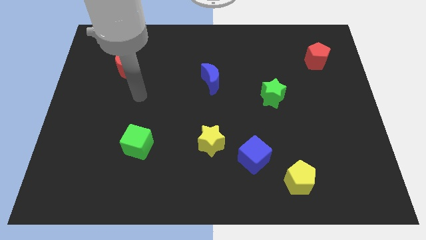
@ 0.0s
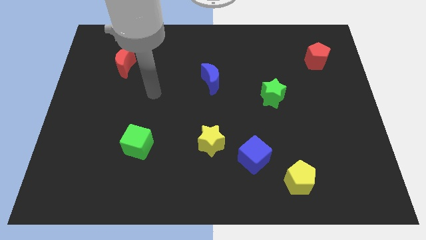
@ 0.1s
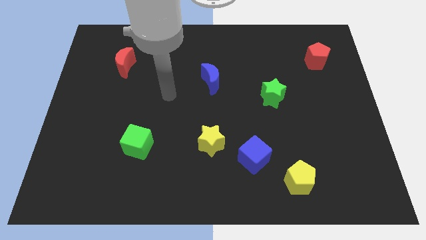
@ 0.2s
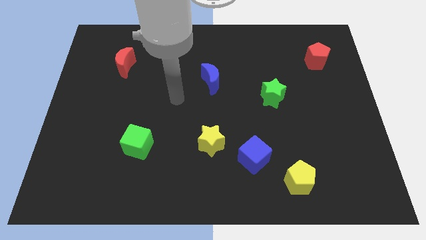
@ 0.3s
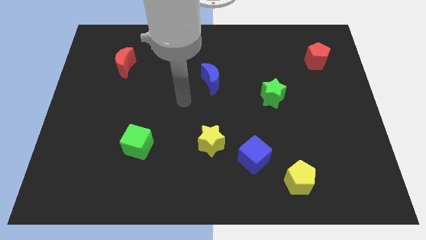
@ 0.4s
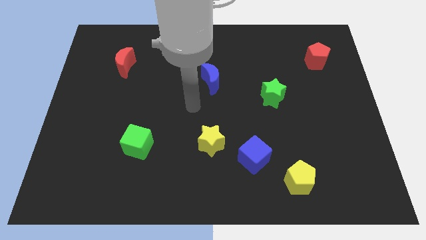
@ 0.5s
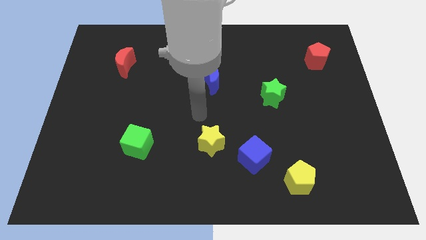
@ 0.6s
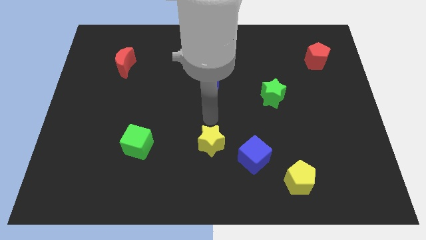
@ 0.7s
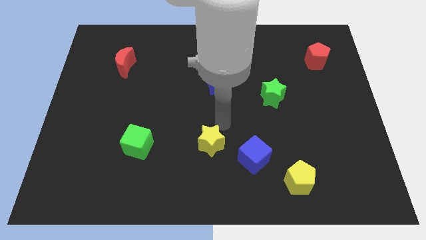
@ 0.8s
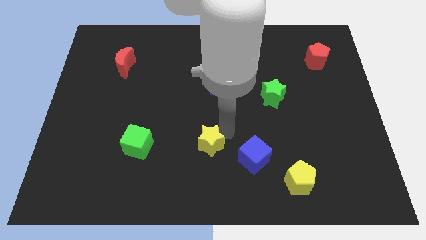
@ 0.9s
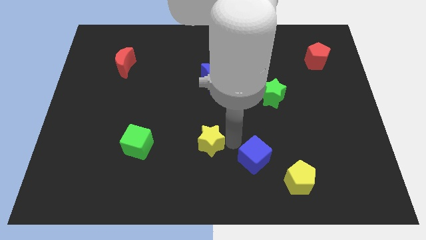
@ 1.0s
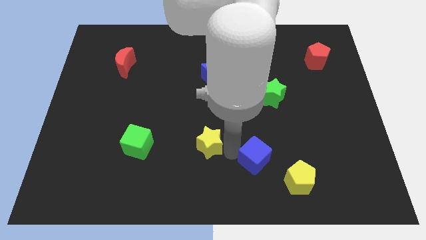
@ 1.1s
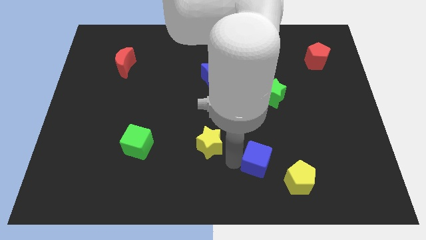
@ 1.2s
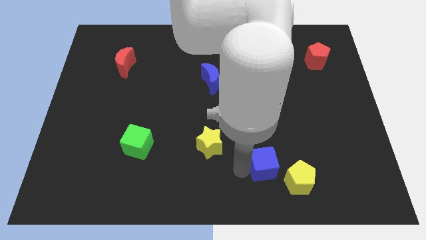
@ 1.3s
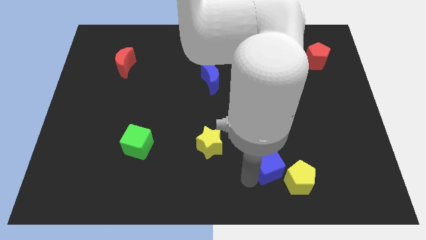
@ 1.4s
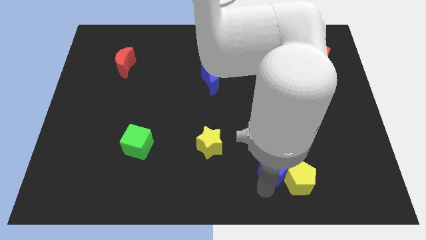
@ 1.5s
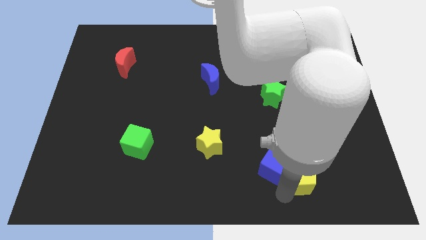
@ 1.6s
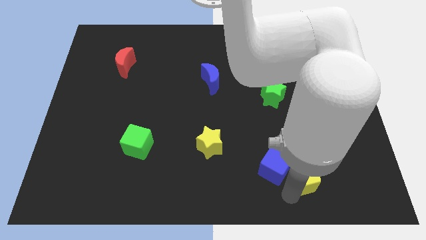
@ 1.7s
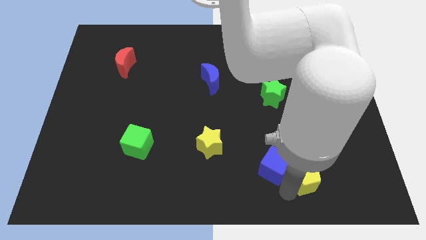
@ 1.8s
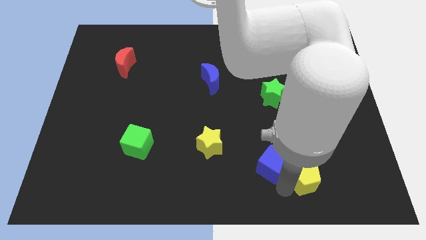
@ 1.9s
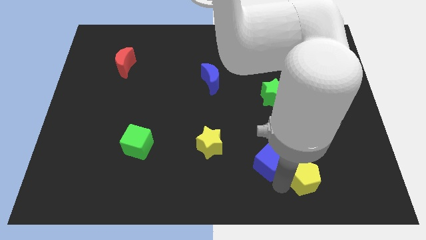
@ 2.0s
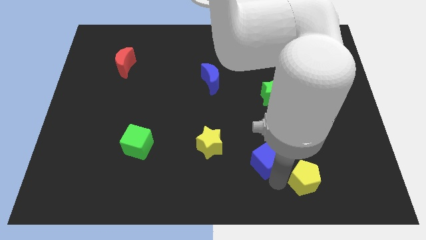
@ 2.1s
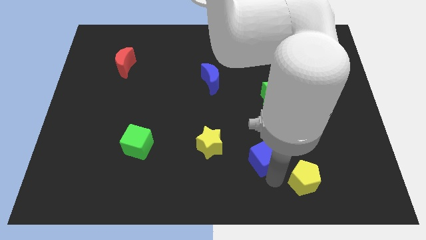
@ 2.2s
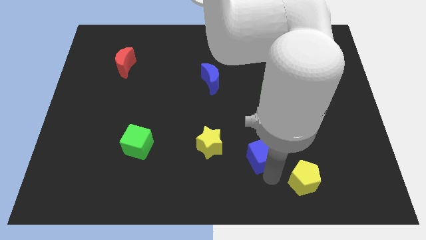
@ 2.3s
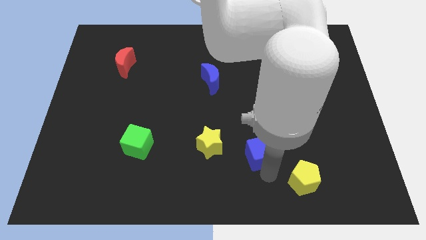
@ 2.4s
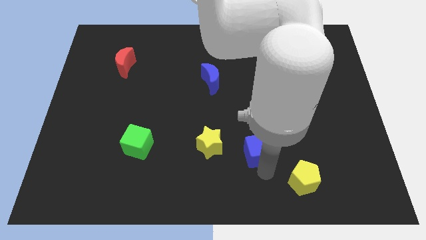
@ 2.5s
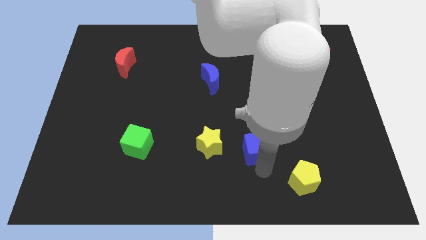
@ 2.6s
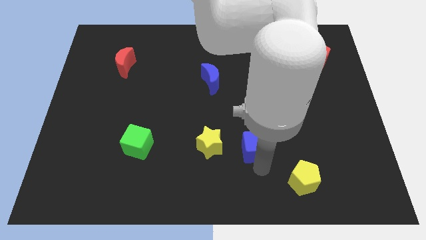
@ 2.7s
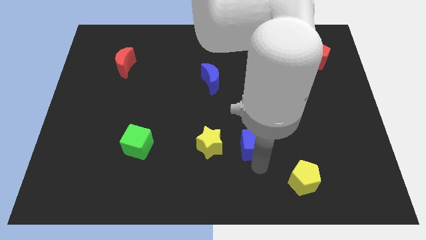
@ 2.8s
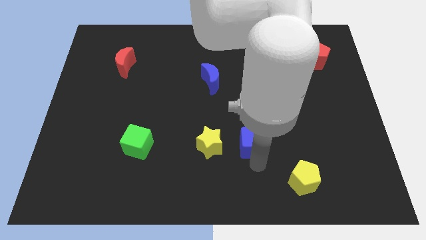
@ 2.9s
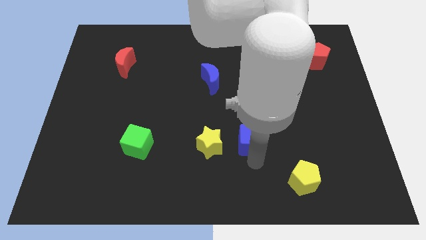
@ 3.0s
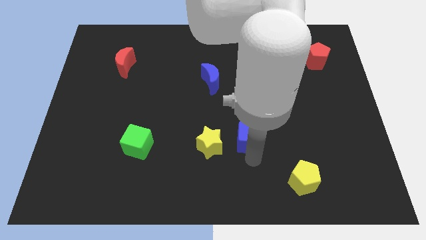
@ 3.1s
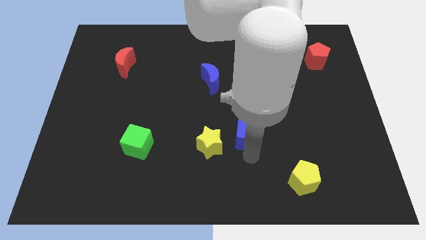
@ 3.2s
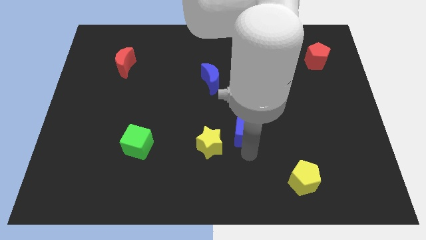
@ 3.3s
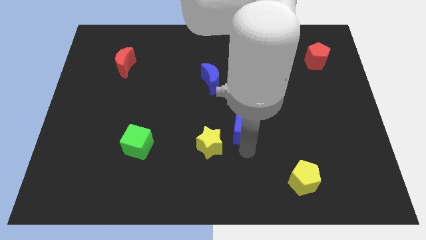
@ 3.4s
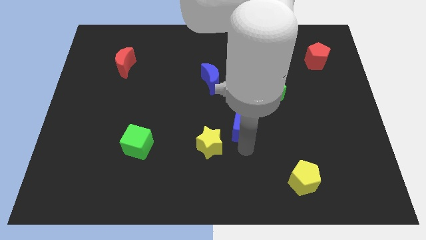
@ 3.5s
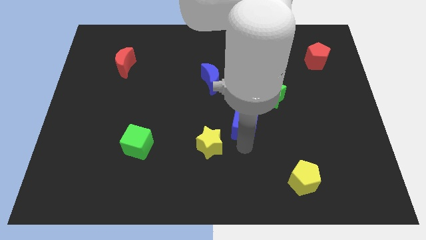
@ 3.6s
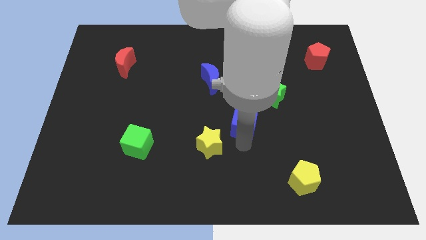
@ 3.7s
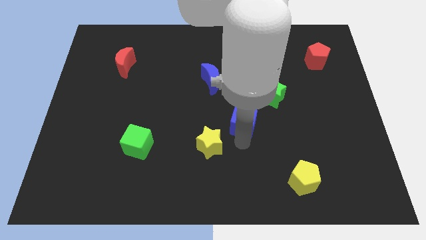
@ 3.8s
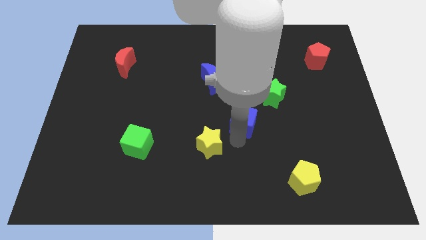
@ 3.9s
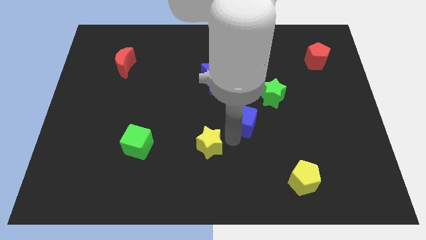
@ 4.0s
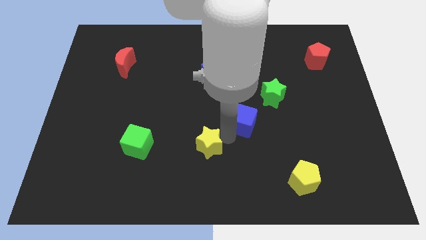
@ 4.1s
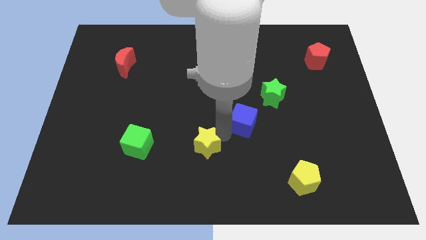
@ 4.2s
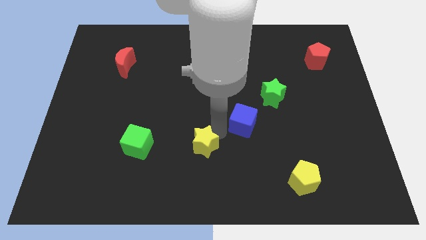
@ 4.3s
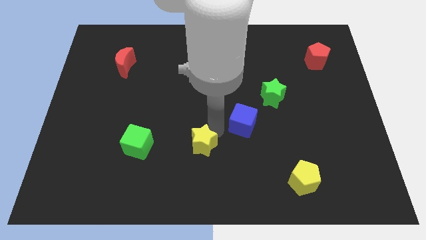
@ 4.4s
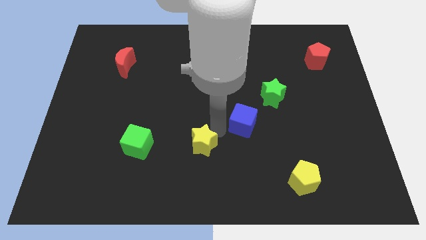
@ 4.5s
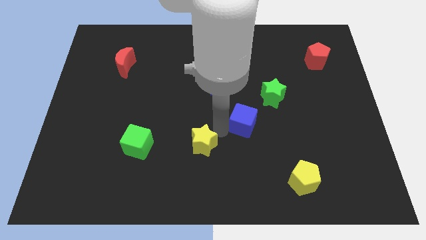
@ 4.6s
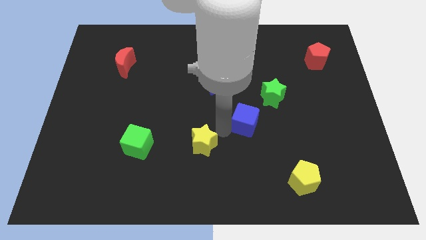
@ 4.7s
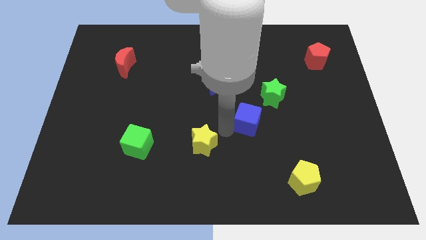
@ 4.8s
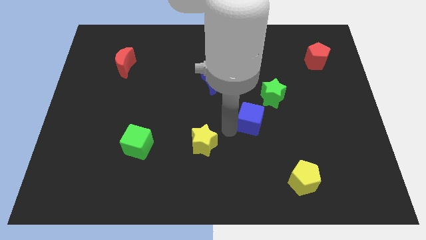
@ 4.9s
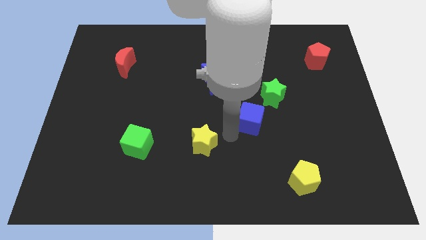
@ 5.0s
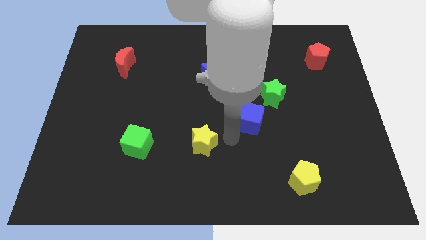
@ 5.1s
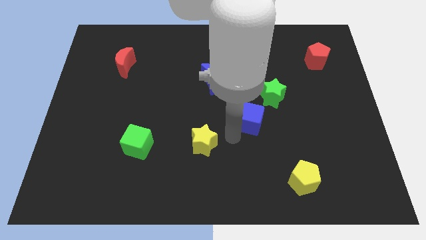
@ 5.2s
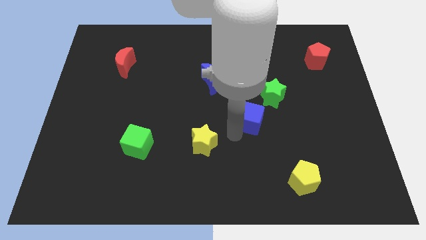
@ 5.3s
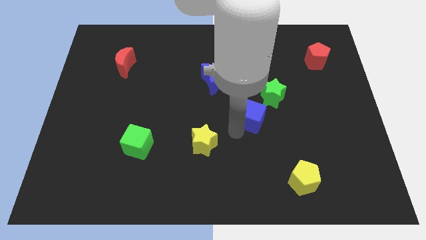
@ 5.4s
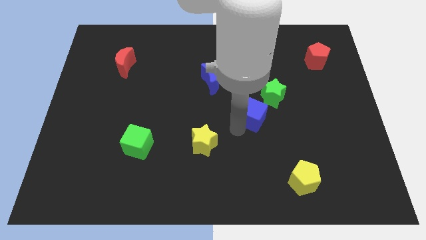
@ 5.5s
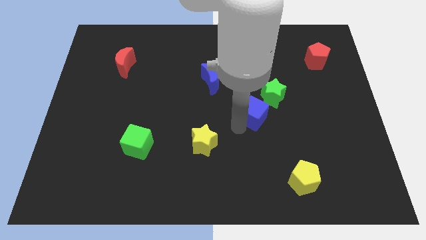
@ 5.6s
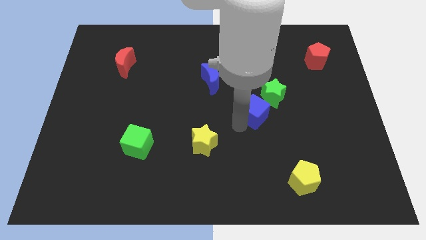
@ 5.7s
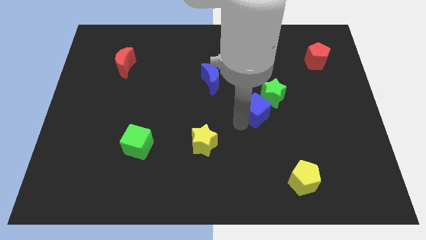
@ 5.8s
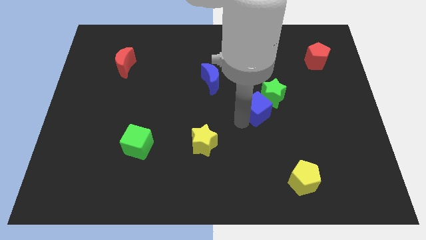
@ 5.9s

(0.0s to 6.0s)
slide the blue cube close to the green star

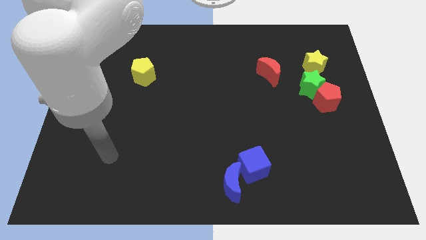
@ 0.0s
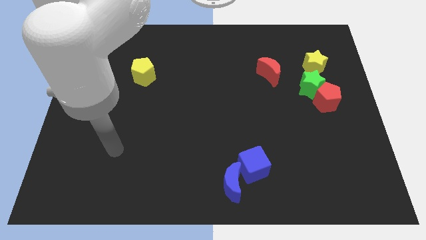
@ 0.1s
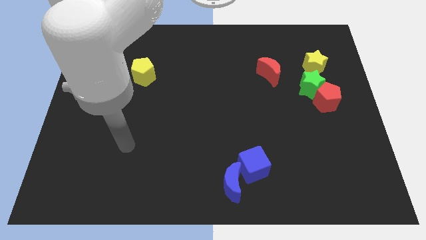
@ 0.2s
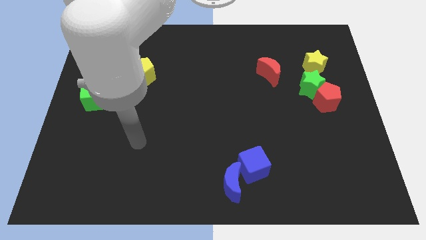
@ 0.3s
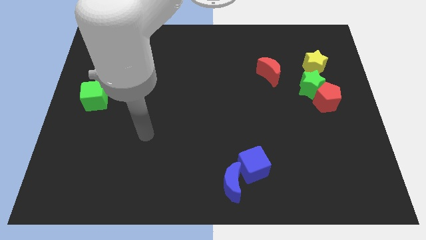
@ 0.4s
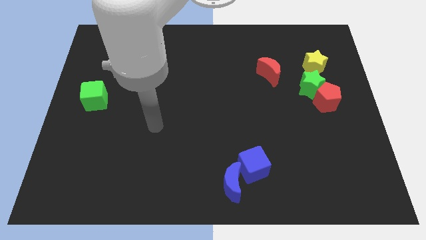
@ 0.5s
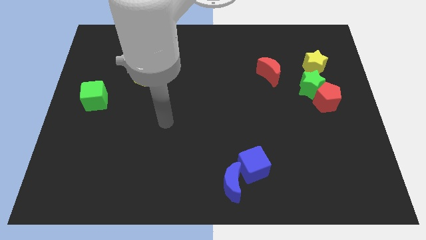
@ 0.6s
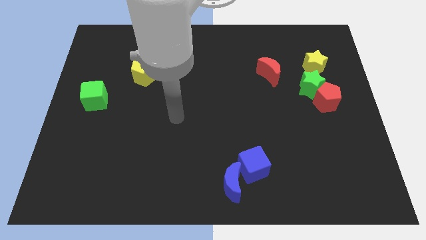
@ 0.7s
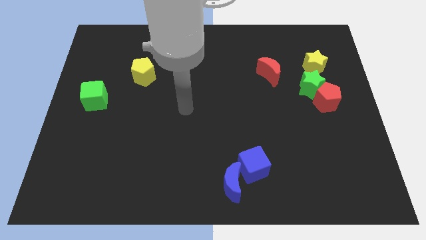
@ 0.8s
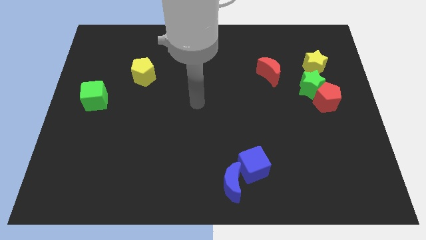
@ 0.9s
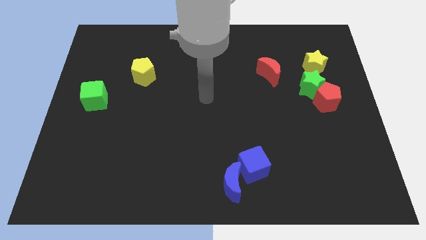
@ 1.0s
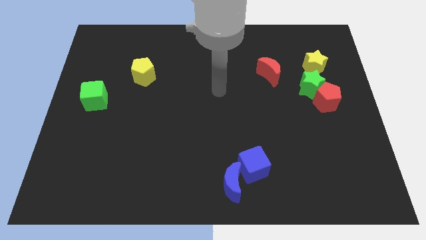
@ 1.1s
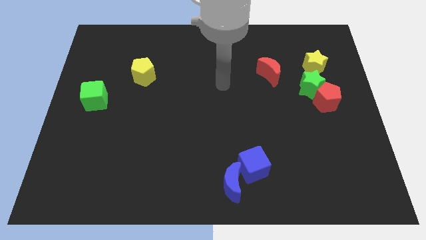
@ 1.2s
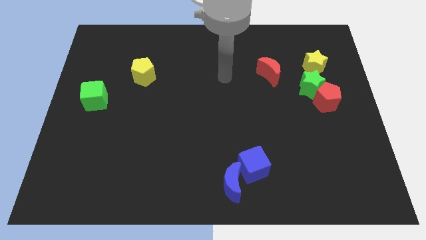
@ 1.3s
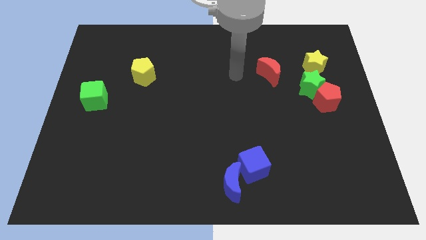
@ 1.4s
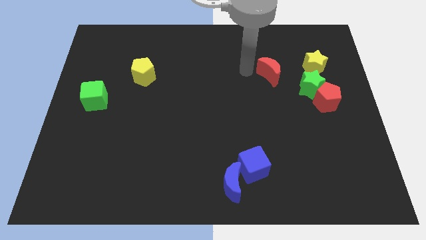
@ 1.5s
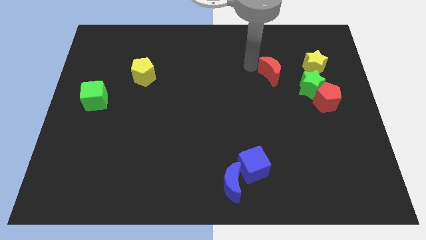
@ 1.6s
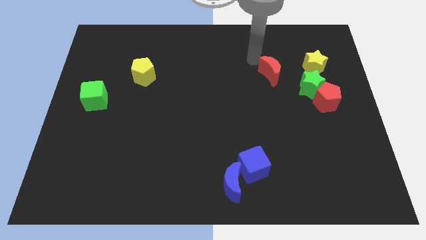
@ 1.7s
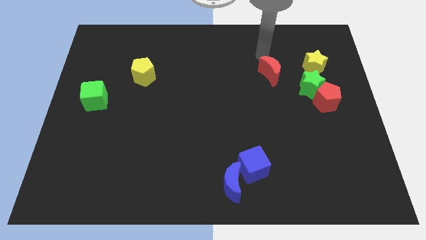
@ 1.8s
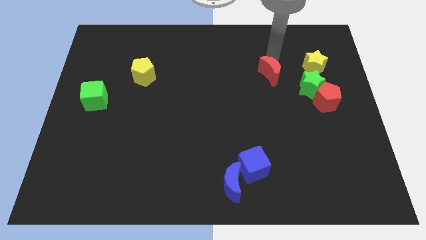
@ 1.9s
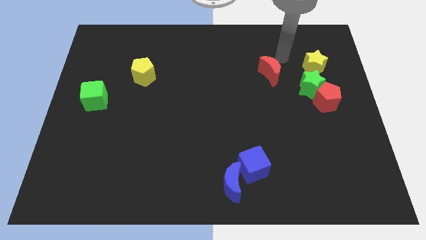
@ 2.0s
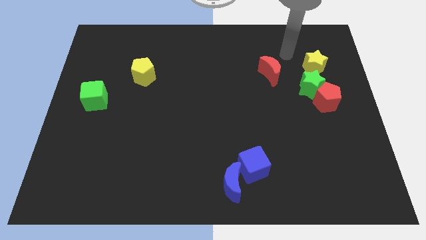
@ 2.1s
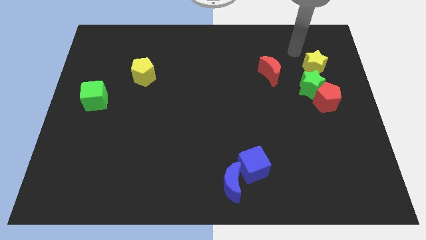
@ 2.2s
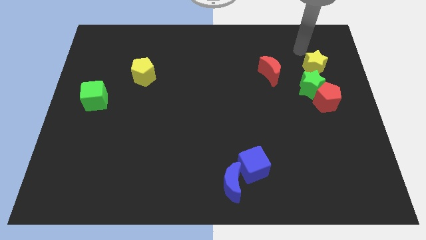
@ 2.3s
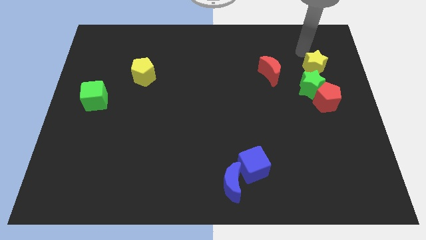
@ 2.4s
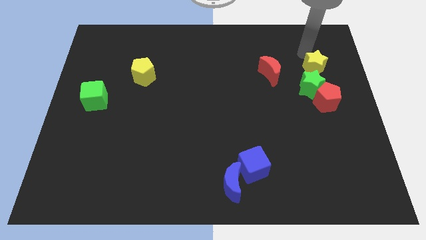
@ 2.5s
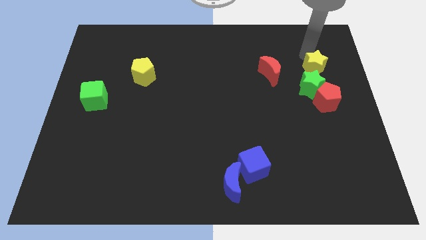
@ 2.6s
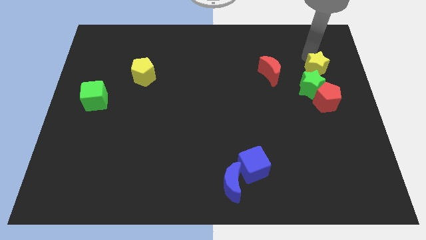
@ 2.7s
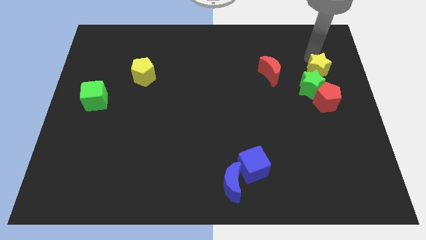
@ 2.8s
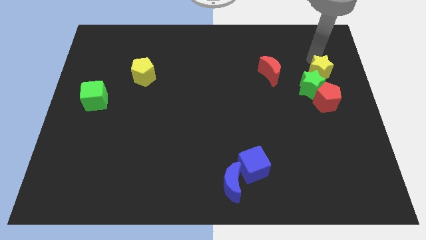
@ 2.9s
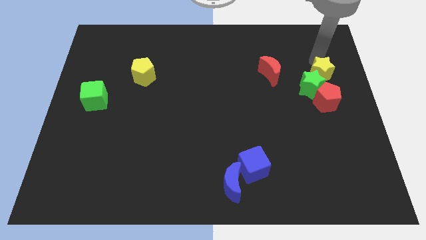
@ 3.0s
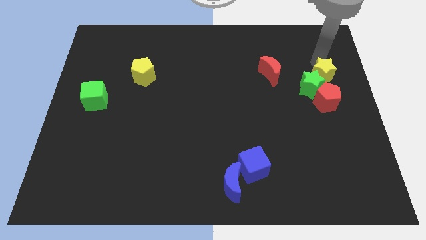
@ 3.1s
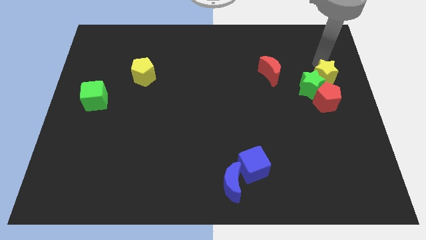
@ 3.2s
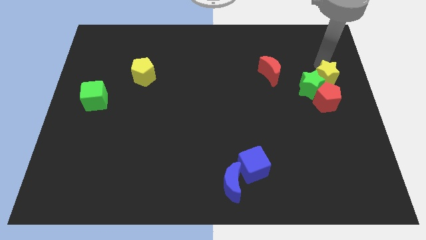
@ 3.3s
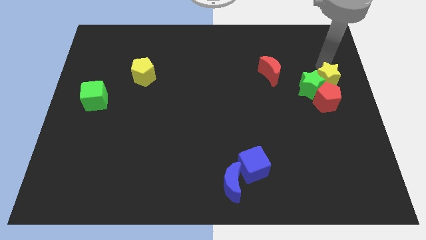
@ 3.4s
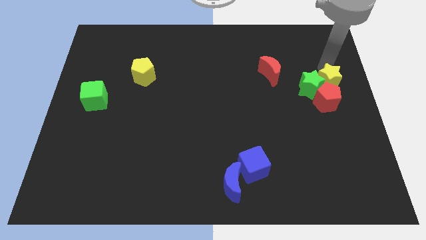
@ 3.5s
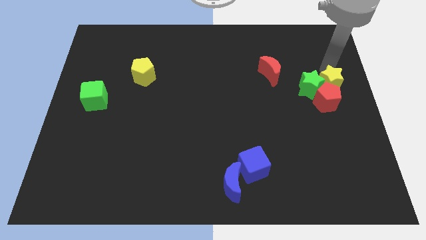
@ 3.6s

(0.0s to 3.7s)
slide the yellow star close to the red pentagon
